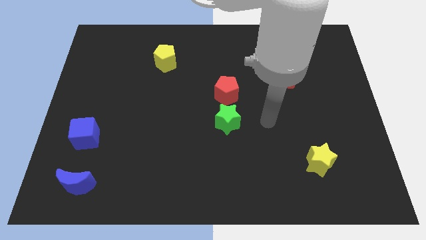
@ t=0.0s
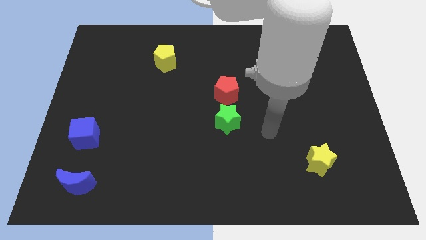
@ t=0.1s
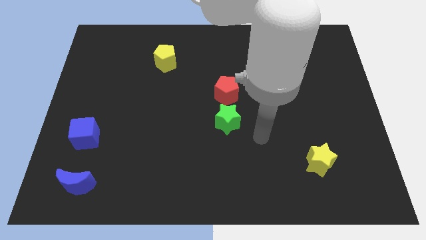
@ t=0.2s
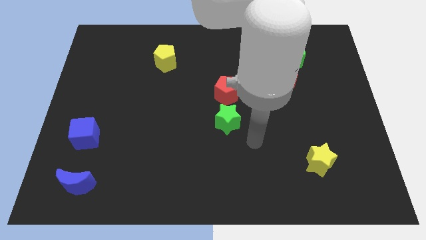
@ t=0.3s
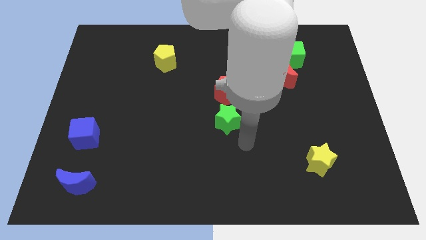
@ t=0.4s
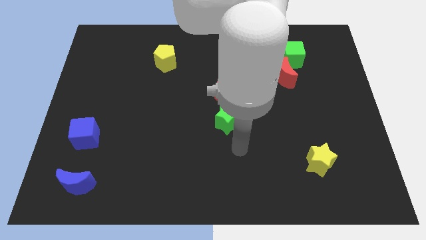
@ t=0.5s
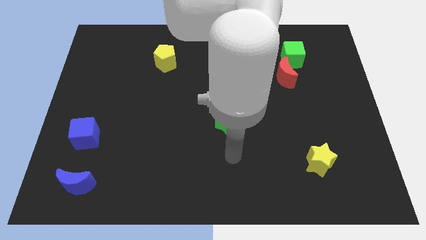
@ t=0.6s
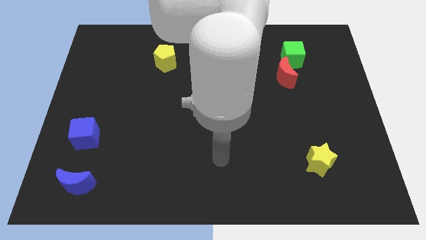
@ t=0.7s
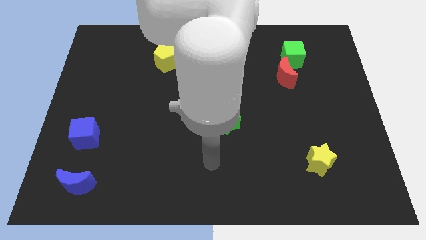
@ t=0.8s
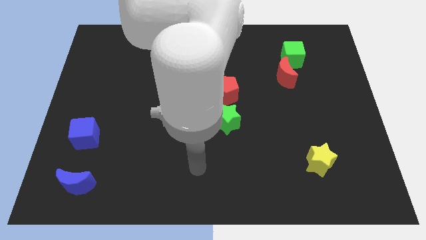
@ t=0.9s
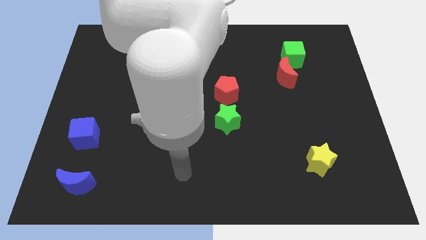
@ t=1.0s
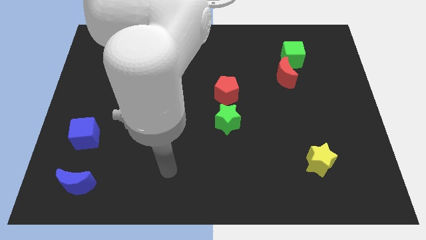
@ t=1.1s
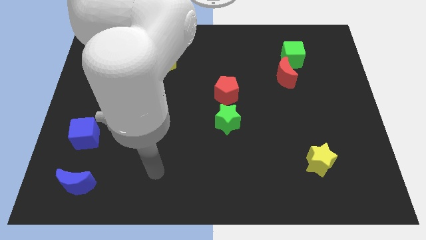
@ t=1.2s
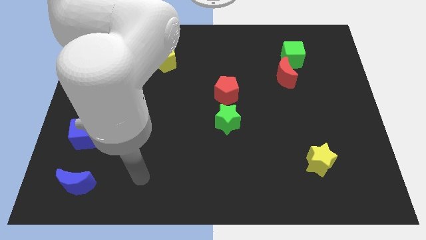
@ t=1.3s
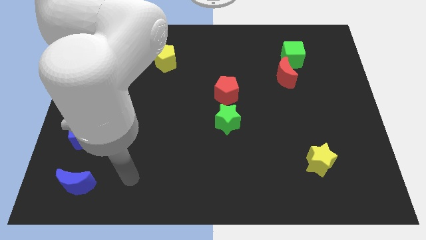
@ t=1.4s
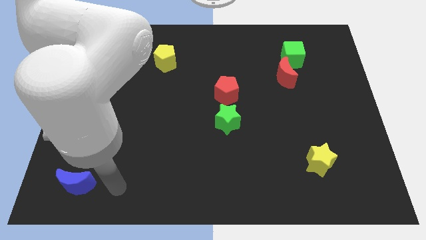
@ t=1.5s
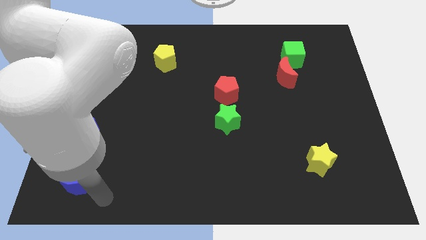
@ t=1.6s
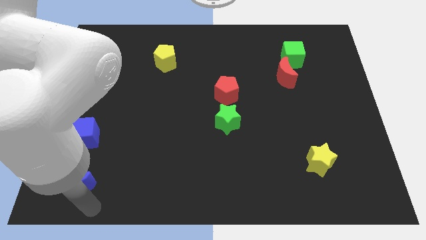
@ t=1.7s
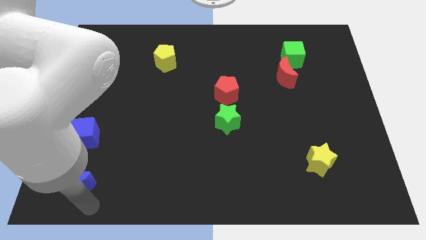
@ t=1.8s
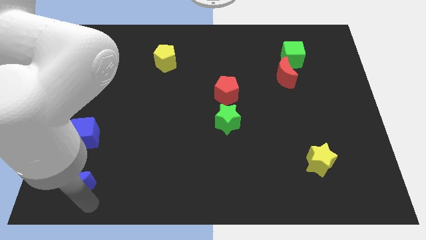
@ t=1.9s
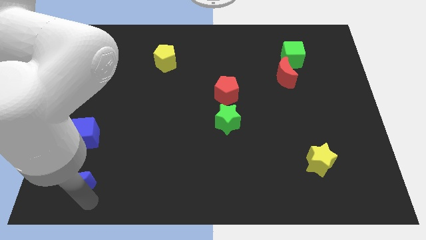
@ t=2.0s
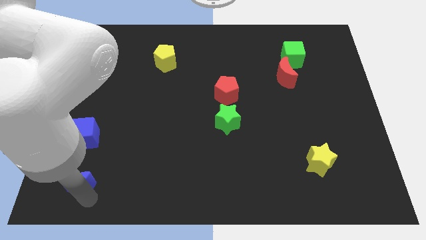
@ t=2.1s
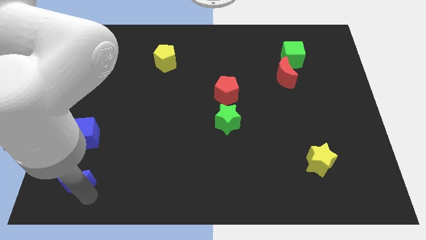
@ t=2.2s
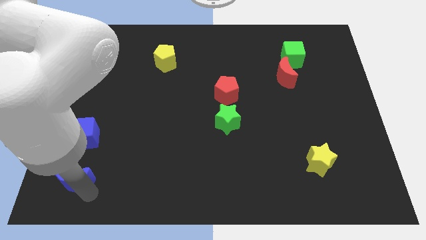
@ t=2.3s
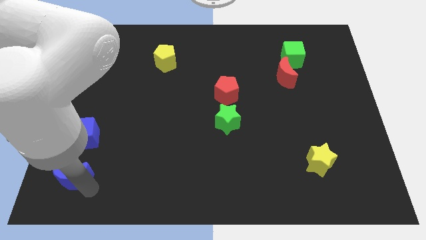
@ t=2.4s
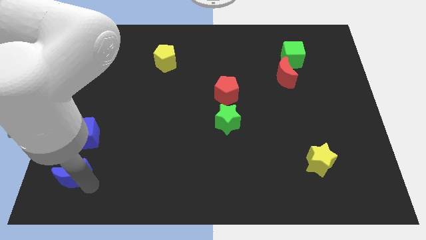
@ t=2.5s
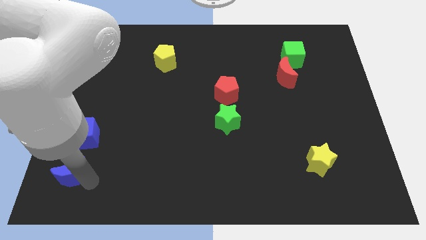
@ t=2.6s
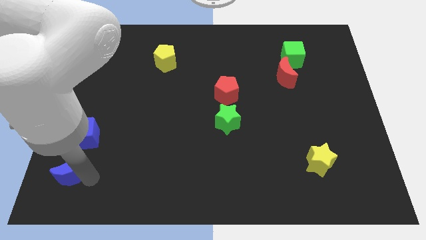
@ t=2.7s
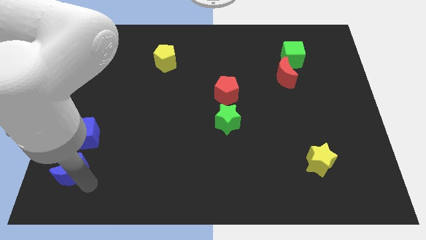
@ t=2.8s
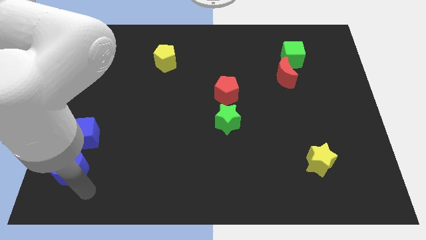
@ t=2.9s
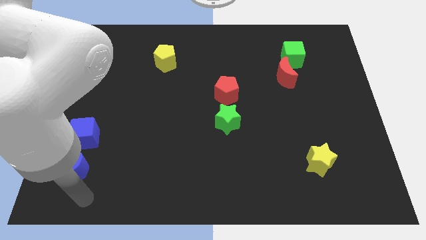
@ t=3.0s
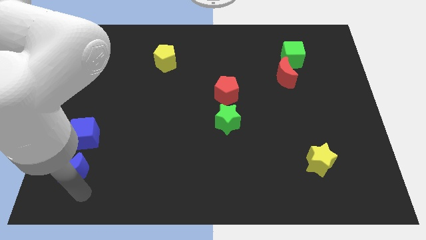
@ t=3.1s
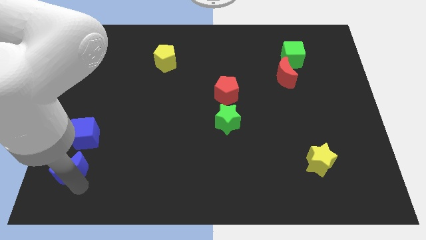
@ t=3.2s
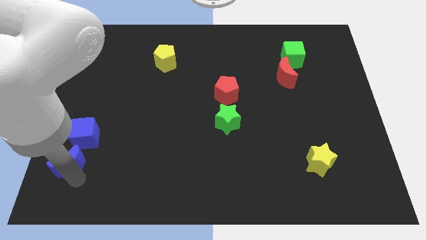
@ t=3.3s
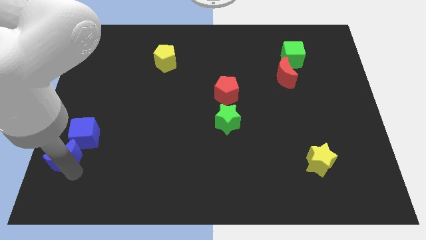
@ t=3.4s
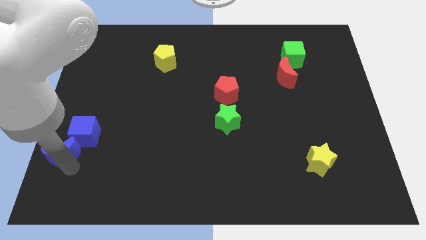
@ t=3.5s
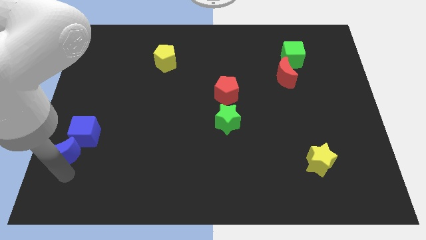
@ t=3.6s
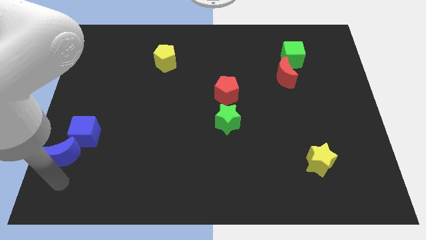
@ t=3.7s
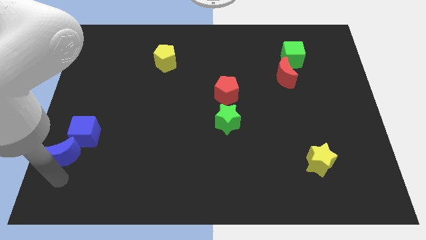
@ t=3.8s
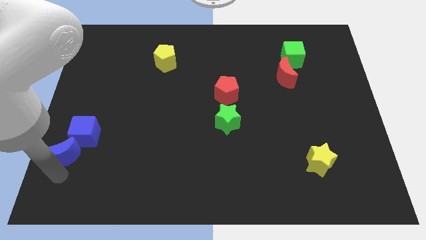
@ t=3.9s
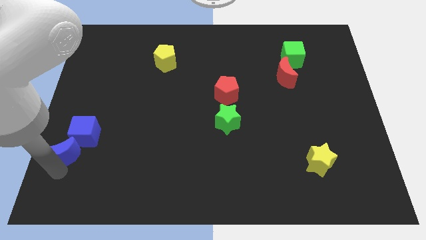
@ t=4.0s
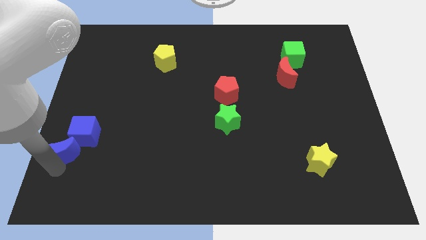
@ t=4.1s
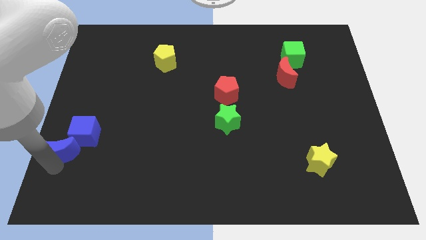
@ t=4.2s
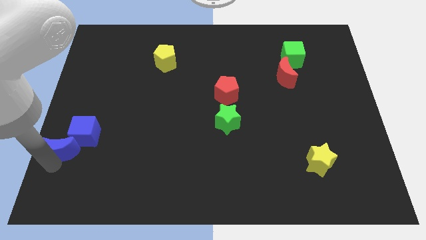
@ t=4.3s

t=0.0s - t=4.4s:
move the blue moon a bit up

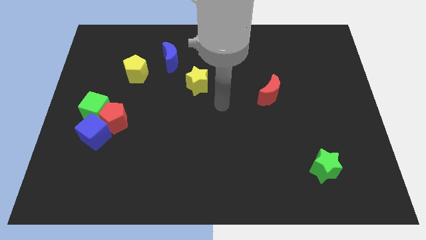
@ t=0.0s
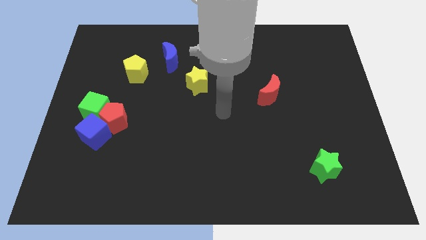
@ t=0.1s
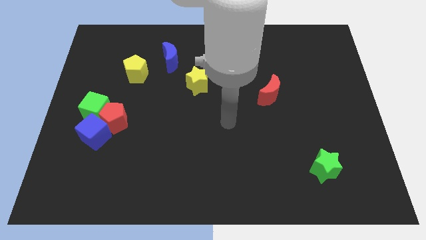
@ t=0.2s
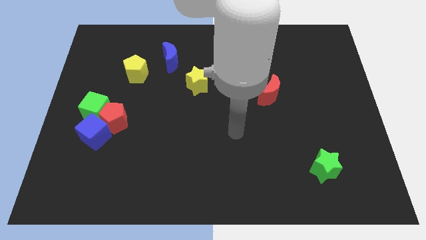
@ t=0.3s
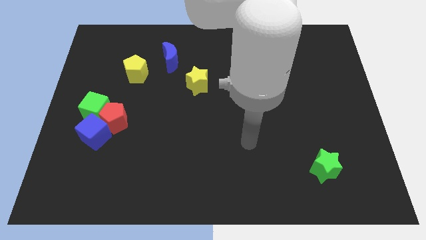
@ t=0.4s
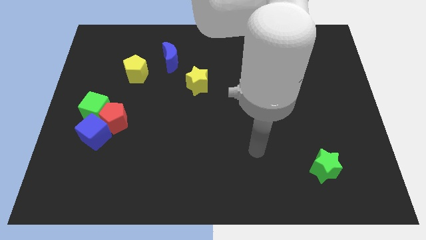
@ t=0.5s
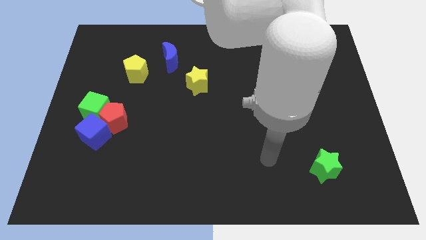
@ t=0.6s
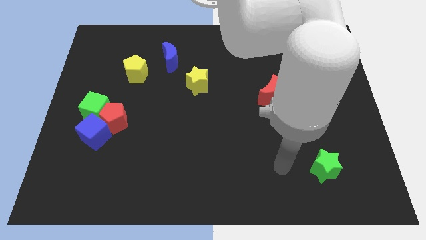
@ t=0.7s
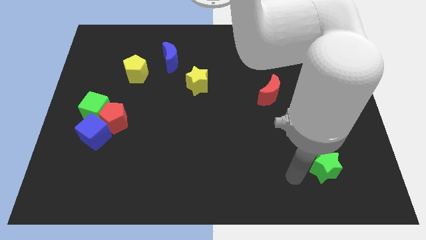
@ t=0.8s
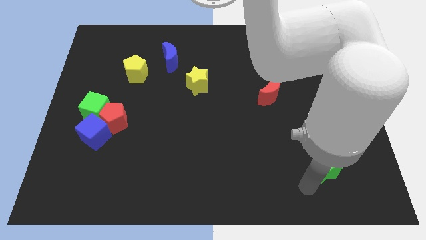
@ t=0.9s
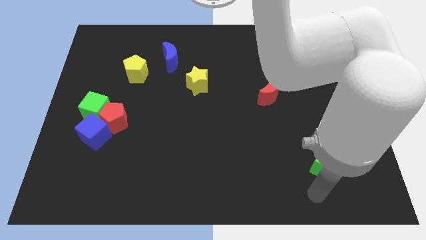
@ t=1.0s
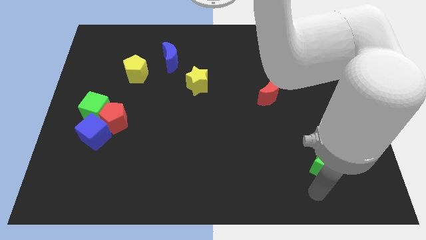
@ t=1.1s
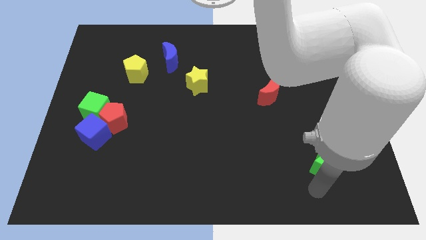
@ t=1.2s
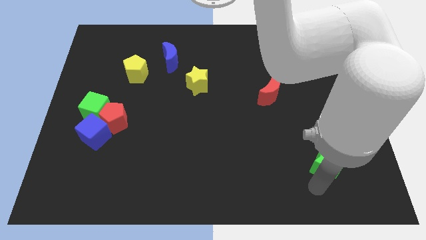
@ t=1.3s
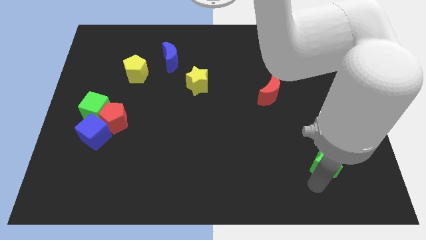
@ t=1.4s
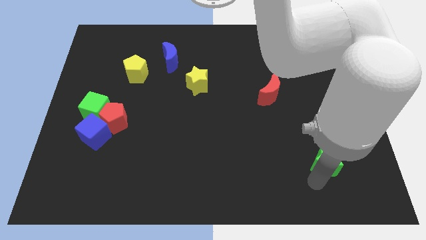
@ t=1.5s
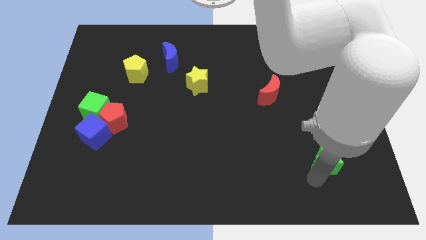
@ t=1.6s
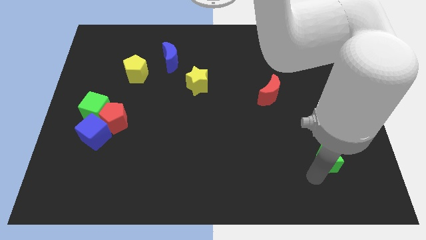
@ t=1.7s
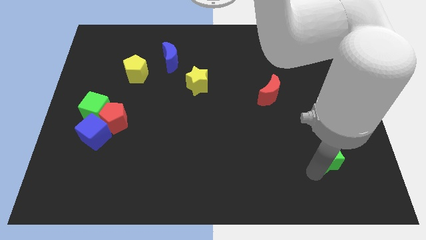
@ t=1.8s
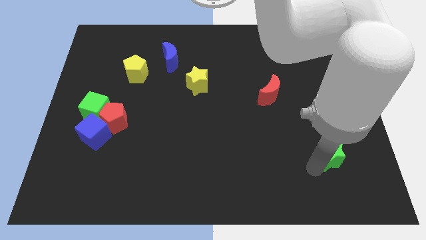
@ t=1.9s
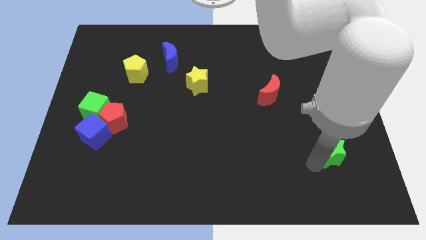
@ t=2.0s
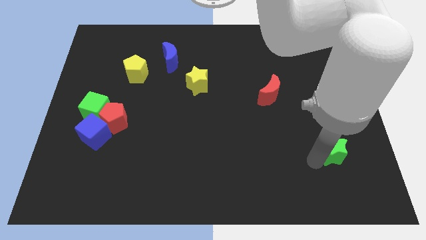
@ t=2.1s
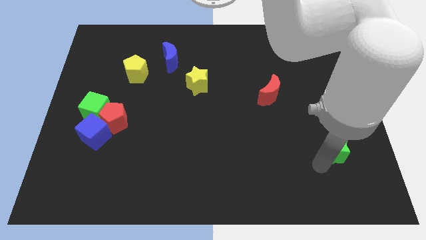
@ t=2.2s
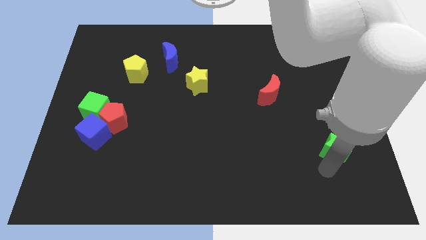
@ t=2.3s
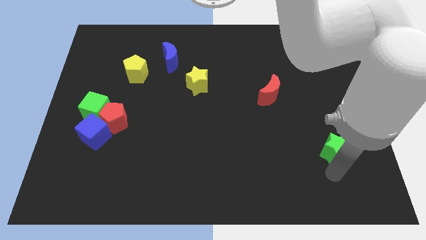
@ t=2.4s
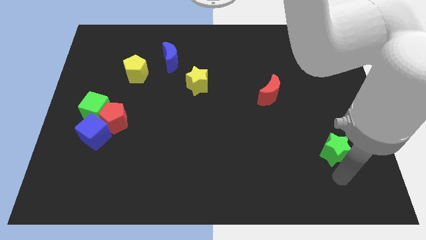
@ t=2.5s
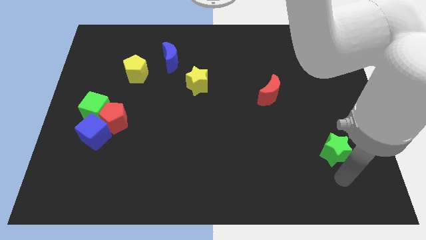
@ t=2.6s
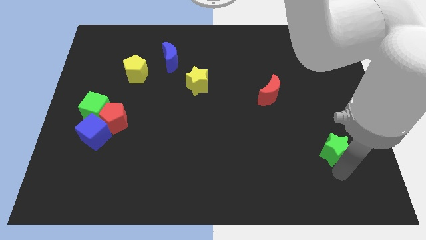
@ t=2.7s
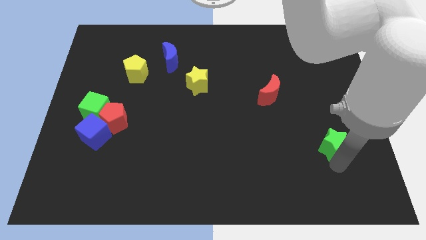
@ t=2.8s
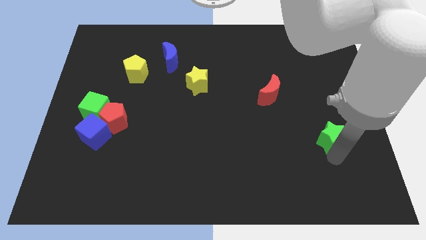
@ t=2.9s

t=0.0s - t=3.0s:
slightly push the green star upwards

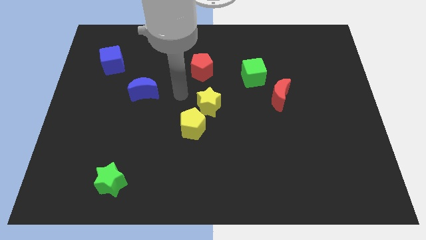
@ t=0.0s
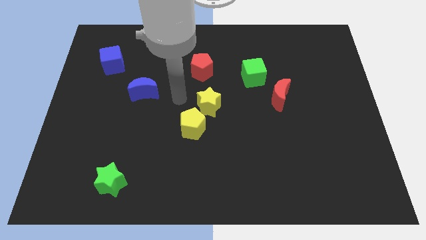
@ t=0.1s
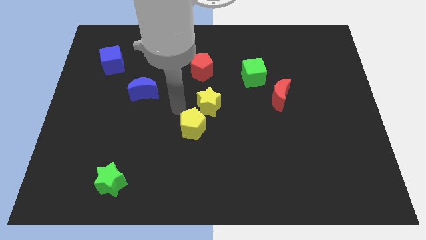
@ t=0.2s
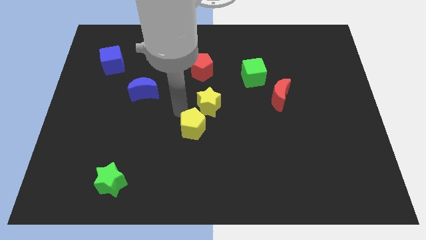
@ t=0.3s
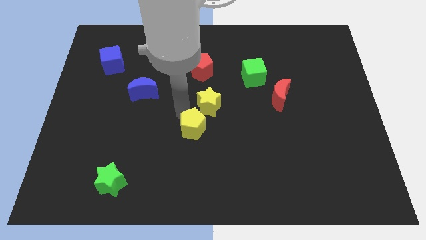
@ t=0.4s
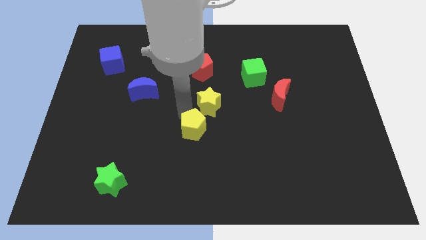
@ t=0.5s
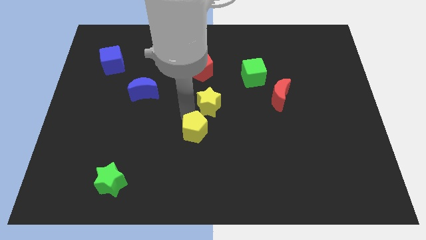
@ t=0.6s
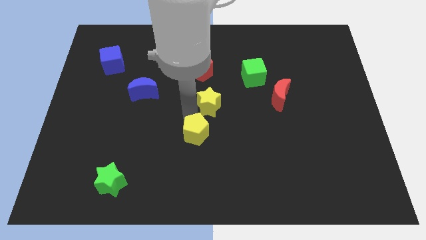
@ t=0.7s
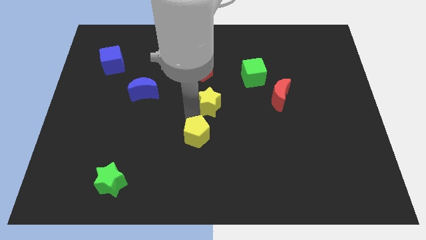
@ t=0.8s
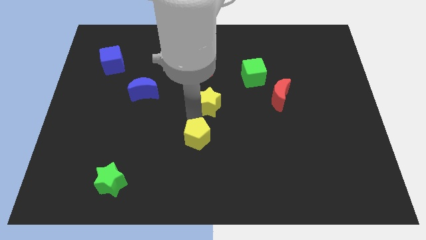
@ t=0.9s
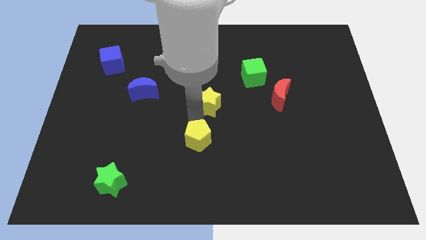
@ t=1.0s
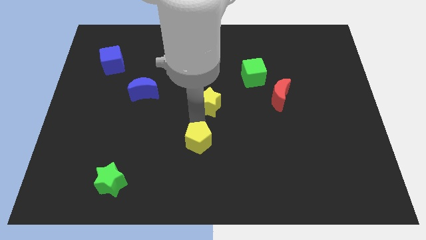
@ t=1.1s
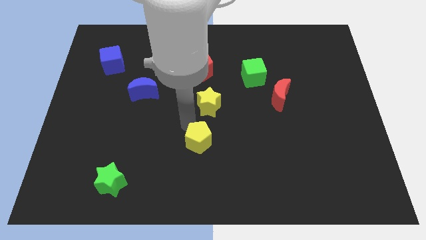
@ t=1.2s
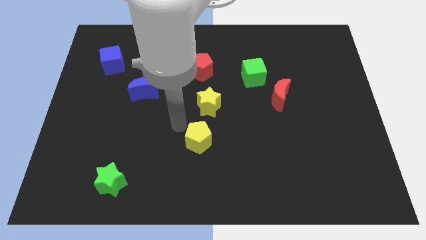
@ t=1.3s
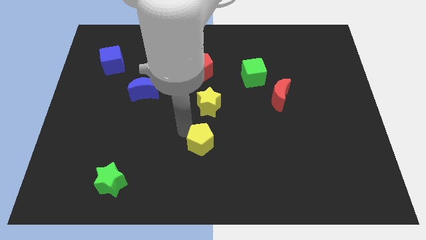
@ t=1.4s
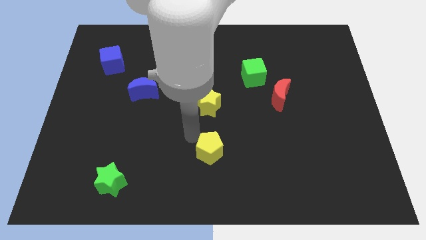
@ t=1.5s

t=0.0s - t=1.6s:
push the yellow pentagon downwards and then right a bit
